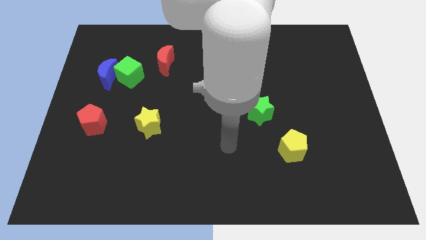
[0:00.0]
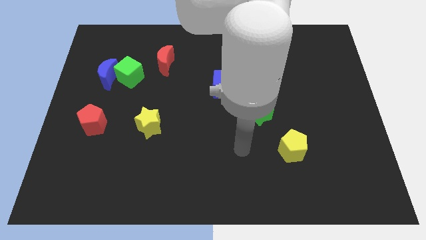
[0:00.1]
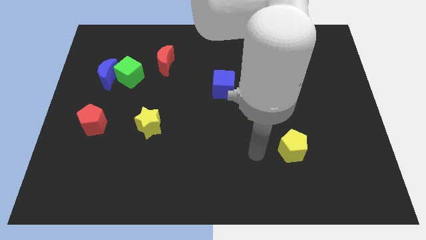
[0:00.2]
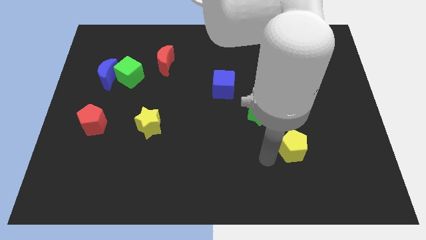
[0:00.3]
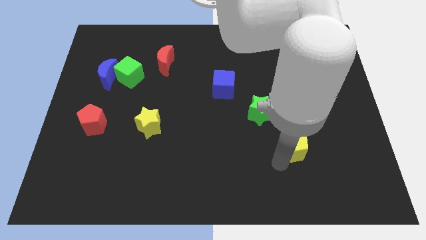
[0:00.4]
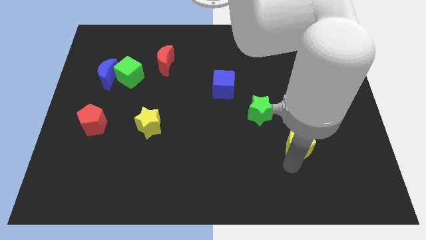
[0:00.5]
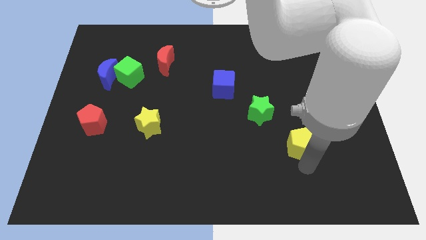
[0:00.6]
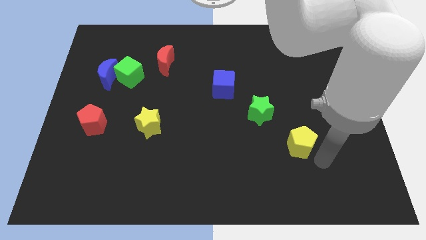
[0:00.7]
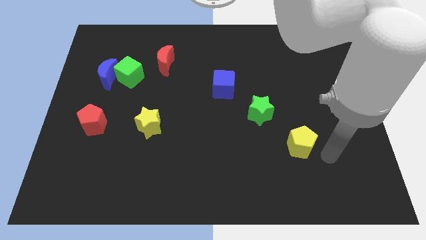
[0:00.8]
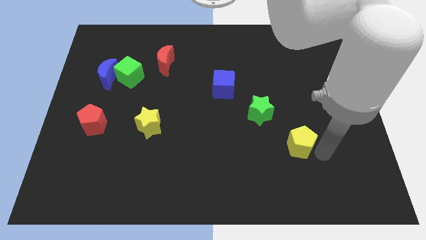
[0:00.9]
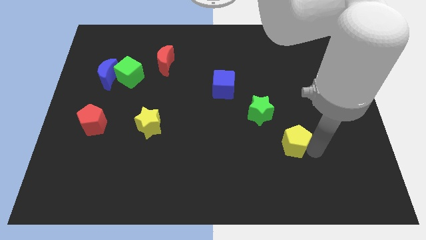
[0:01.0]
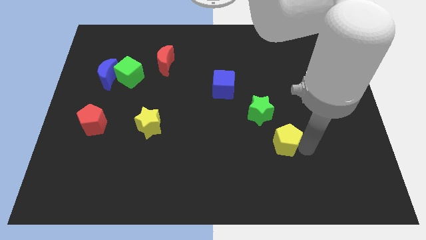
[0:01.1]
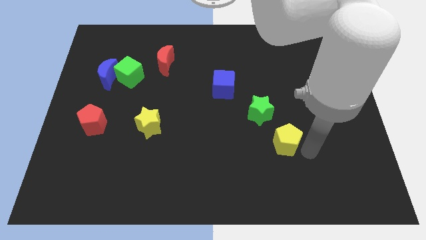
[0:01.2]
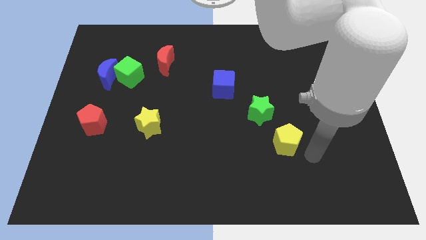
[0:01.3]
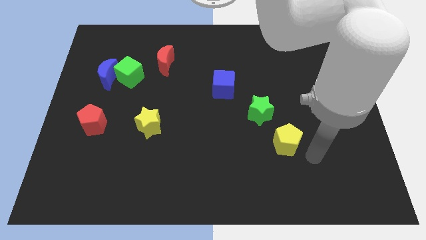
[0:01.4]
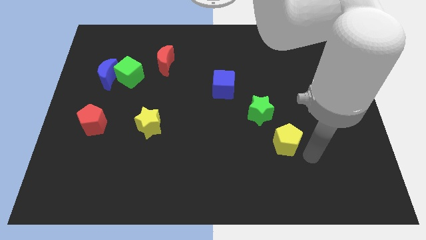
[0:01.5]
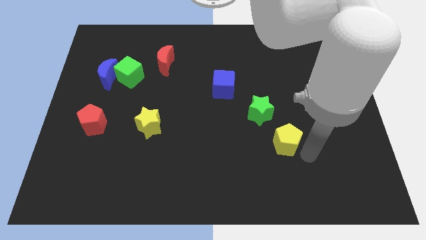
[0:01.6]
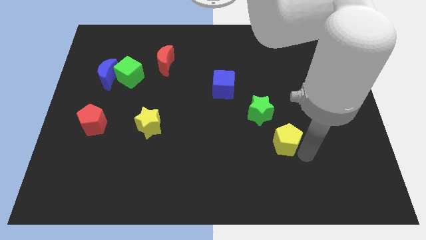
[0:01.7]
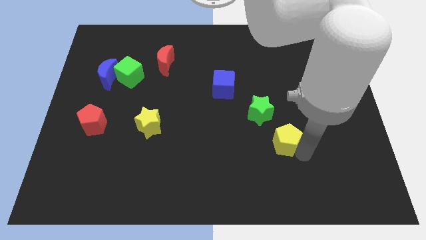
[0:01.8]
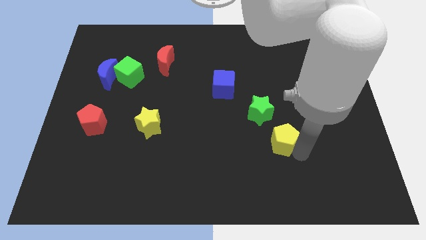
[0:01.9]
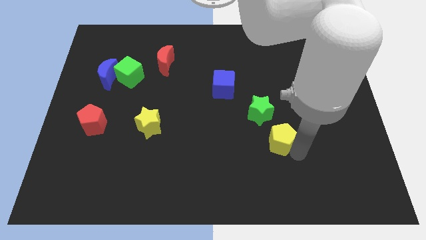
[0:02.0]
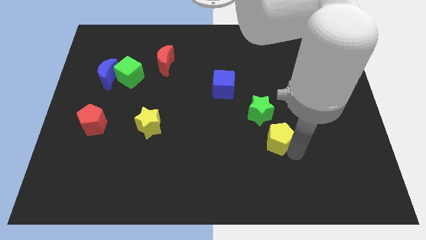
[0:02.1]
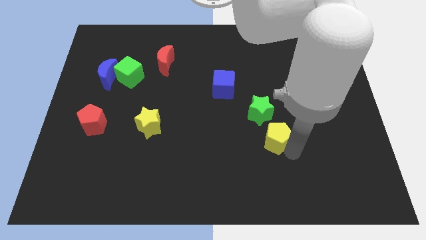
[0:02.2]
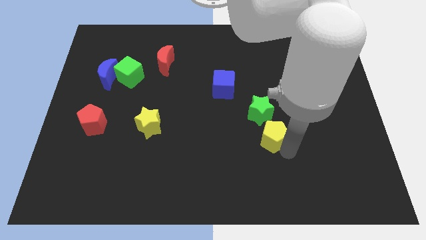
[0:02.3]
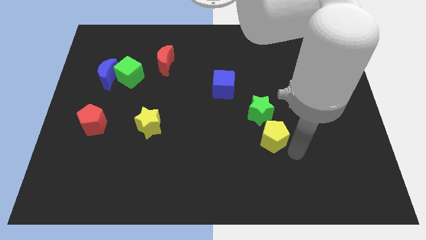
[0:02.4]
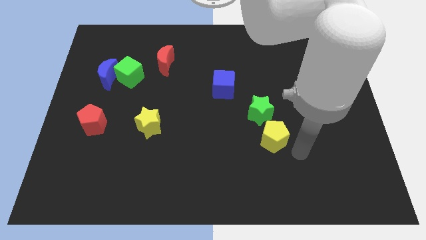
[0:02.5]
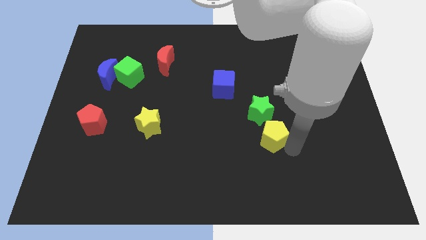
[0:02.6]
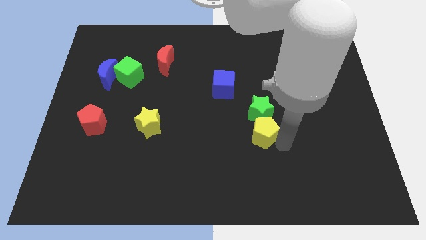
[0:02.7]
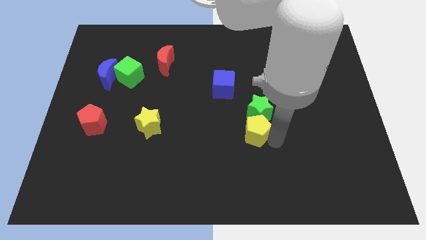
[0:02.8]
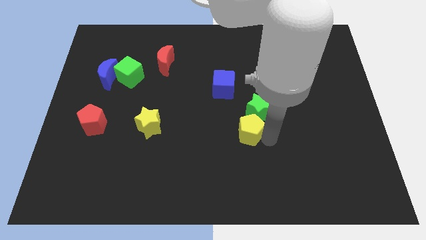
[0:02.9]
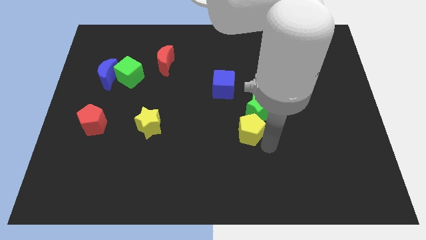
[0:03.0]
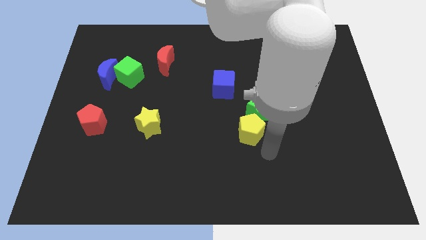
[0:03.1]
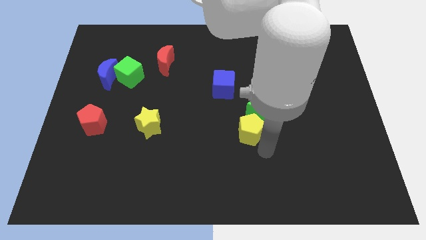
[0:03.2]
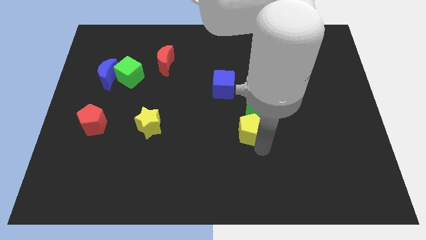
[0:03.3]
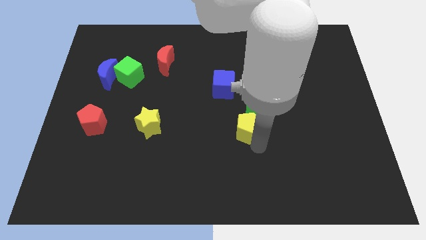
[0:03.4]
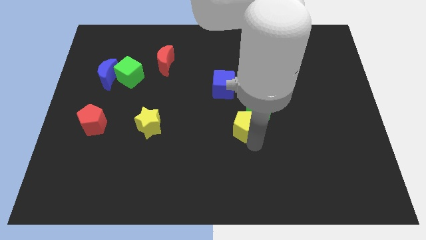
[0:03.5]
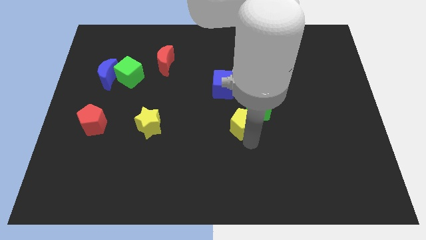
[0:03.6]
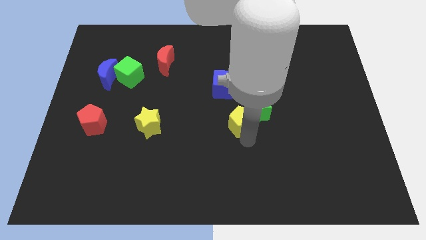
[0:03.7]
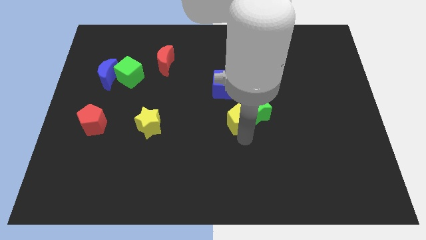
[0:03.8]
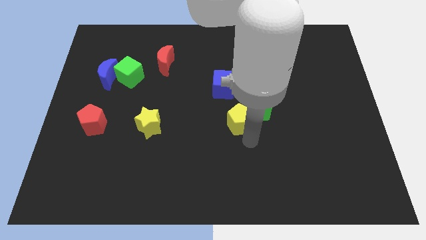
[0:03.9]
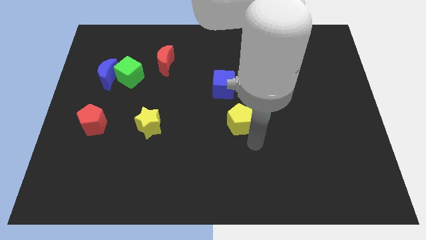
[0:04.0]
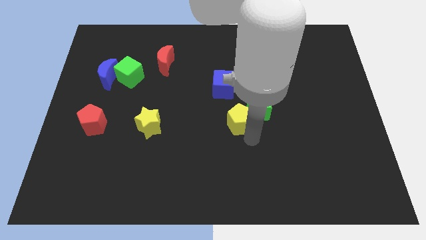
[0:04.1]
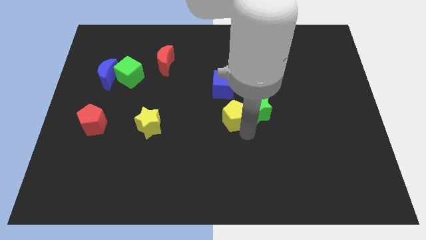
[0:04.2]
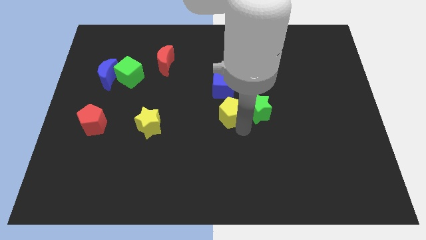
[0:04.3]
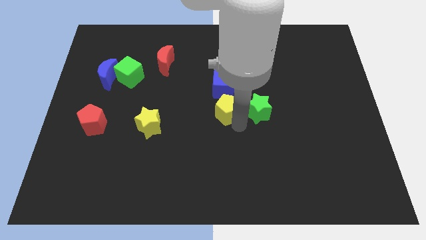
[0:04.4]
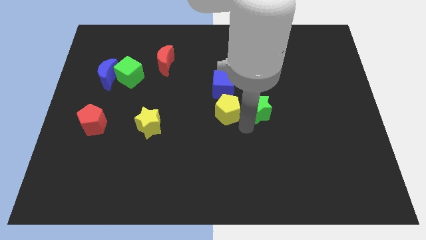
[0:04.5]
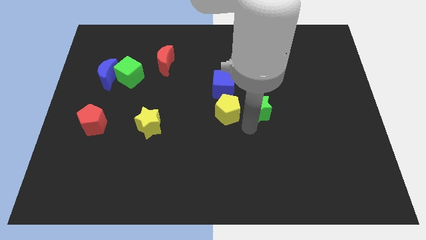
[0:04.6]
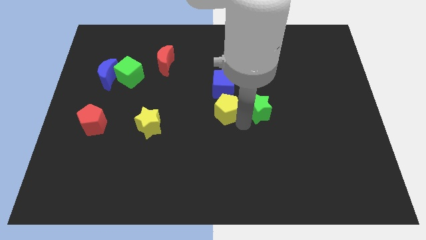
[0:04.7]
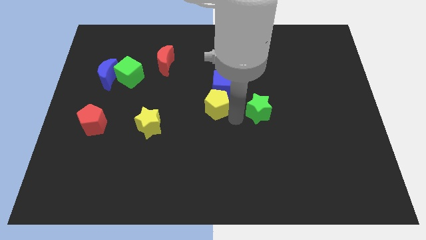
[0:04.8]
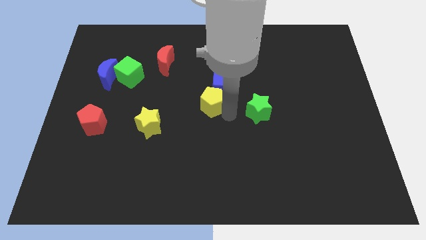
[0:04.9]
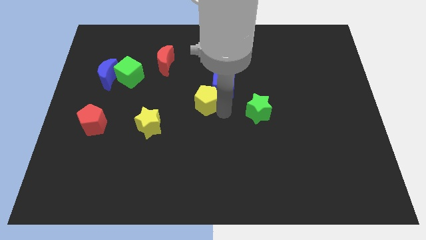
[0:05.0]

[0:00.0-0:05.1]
push the yellow pentagon to the left side of the blue cube

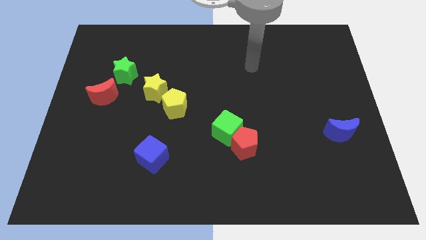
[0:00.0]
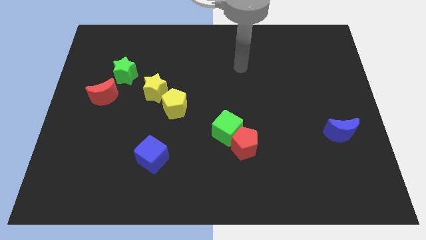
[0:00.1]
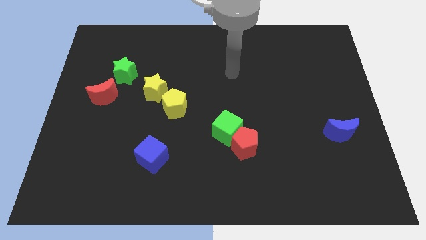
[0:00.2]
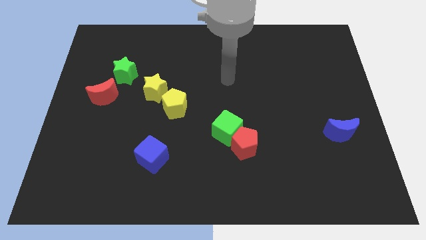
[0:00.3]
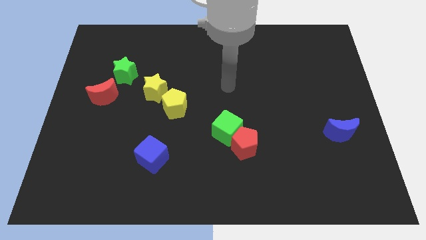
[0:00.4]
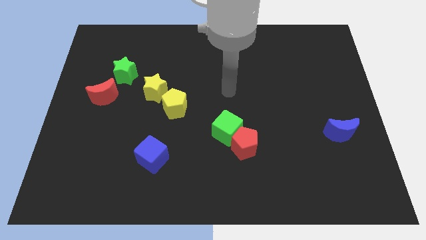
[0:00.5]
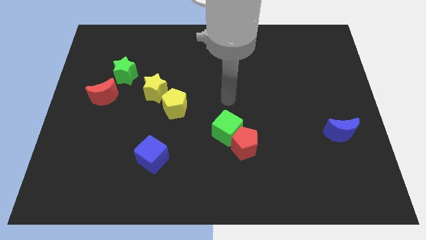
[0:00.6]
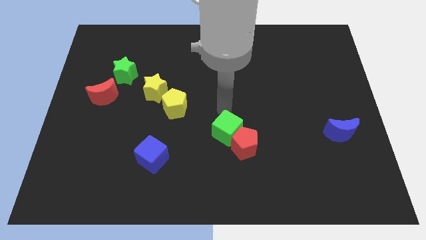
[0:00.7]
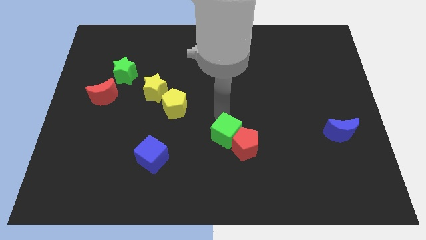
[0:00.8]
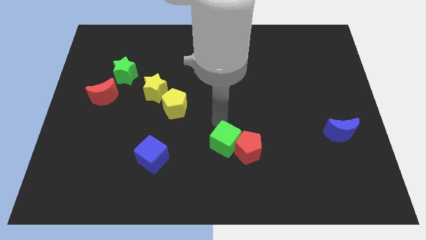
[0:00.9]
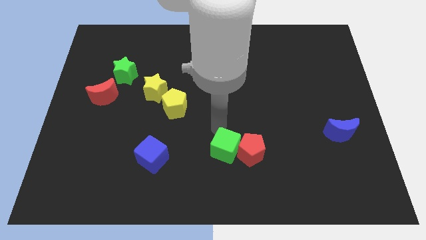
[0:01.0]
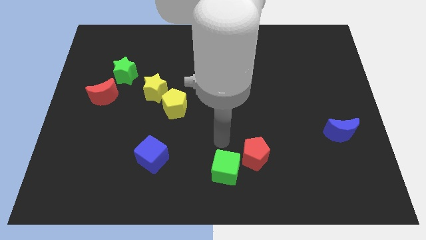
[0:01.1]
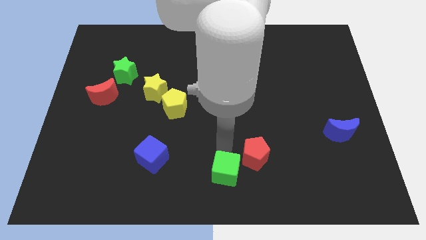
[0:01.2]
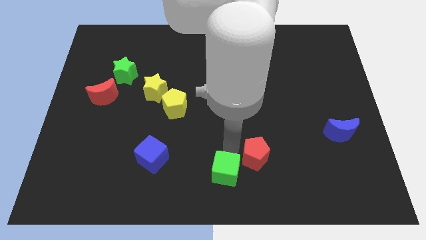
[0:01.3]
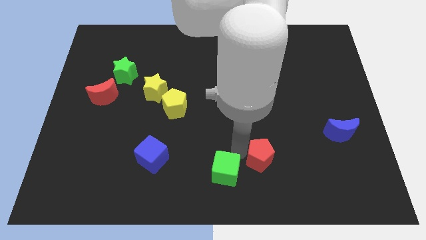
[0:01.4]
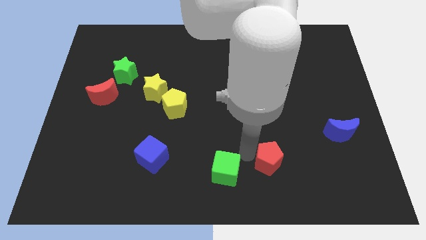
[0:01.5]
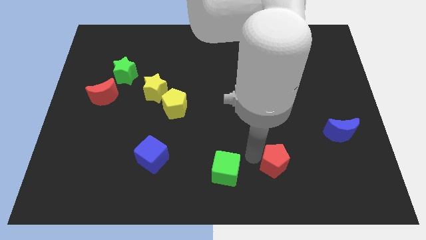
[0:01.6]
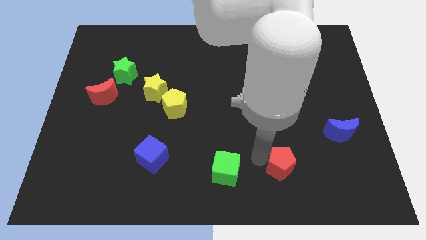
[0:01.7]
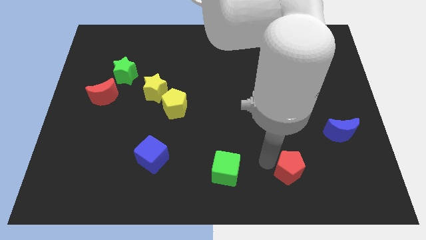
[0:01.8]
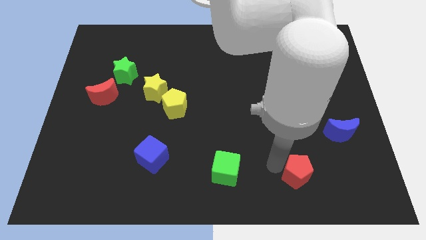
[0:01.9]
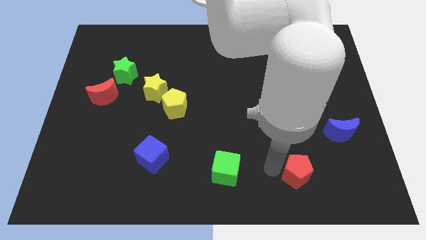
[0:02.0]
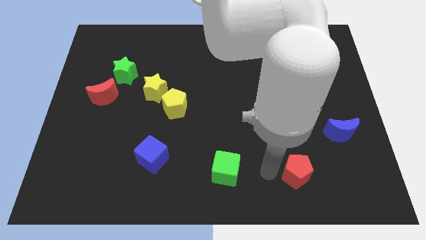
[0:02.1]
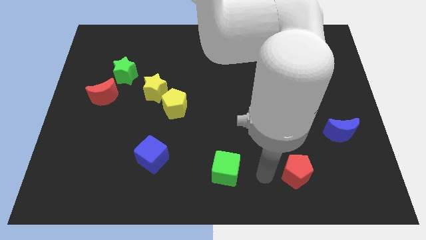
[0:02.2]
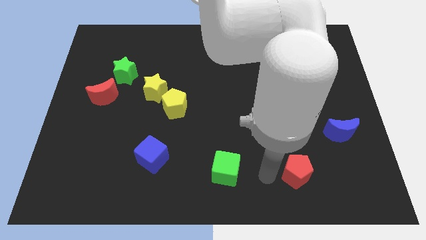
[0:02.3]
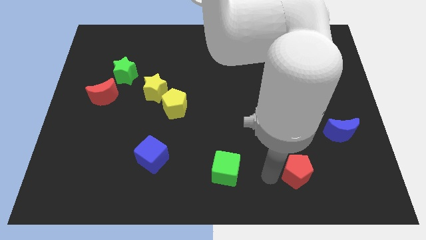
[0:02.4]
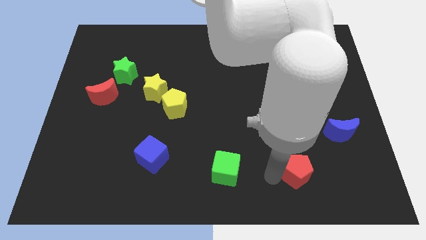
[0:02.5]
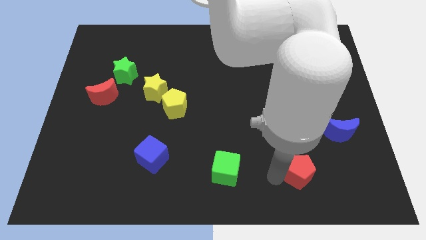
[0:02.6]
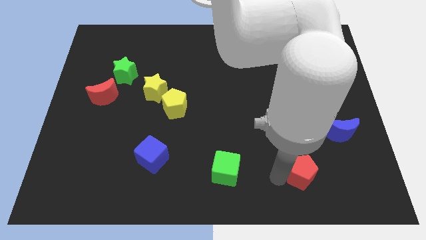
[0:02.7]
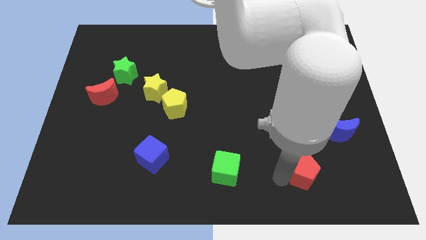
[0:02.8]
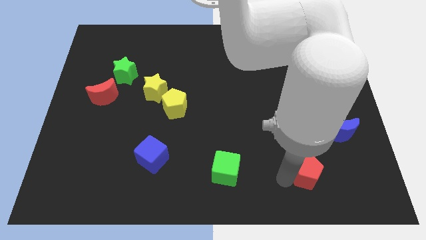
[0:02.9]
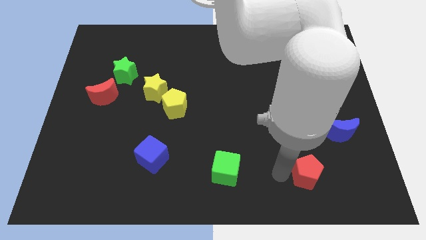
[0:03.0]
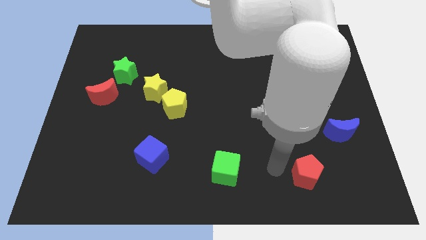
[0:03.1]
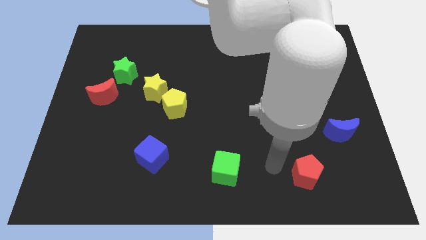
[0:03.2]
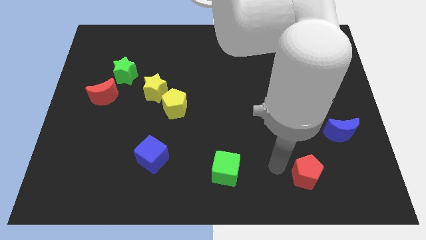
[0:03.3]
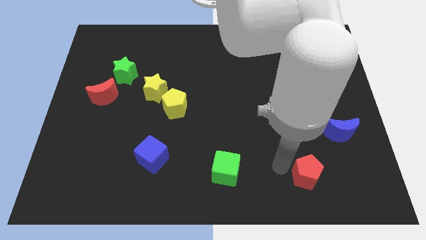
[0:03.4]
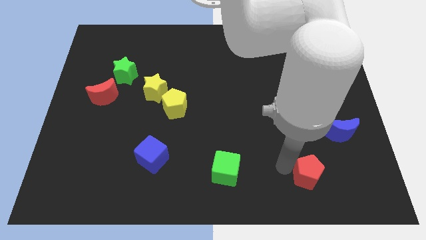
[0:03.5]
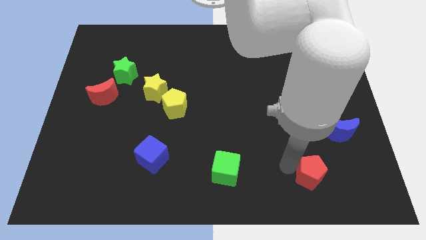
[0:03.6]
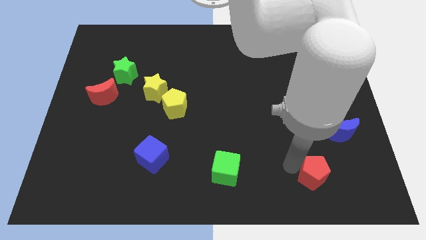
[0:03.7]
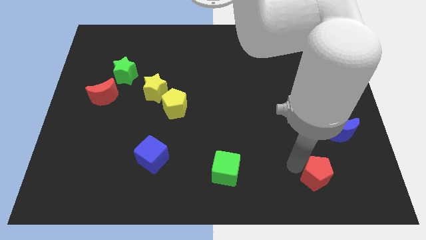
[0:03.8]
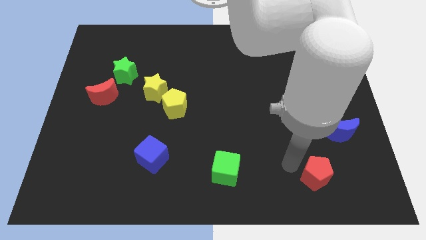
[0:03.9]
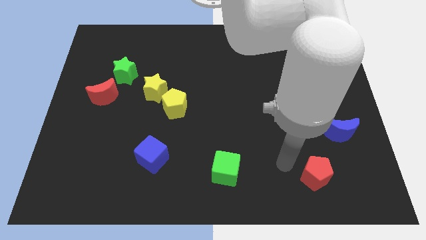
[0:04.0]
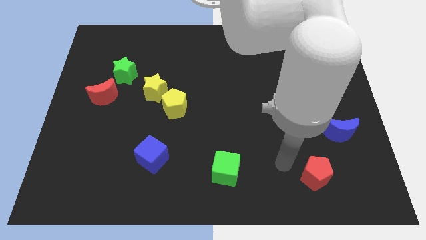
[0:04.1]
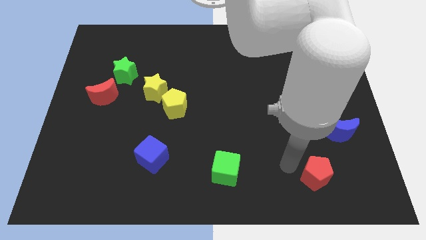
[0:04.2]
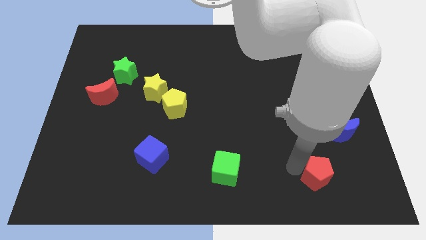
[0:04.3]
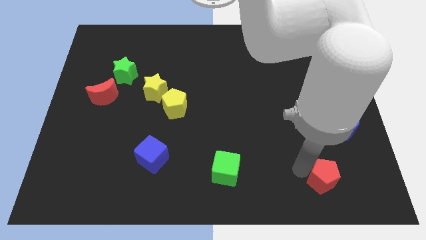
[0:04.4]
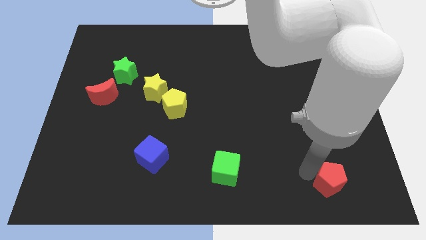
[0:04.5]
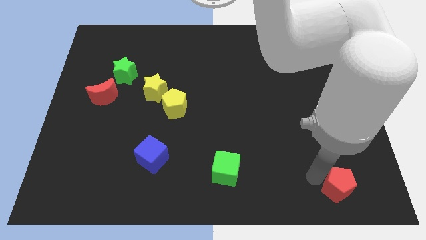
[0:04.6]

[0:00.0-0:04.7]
slide the red pentagon below the blue moon
